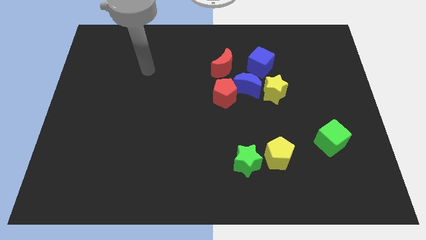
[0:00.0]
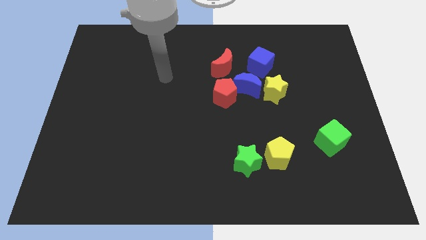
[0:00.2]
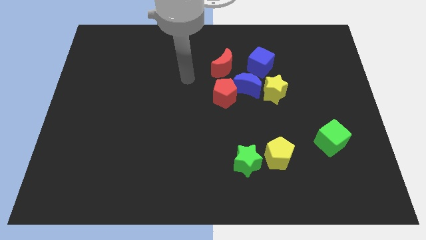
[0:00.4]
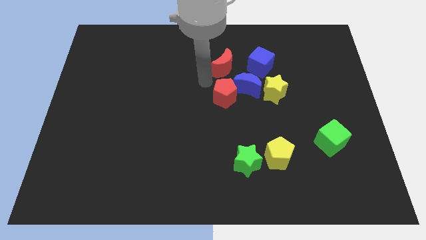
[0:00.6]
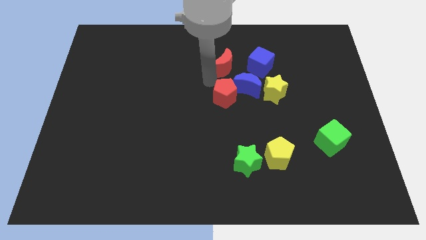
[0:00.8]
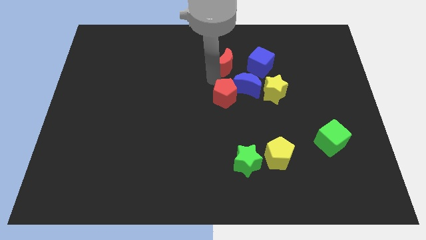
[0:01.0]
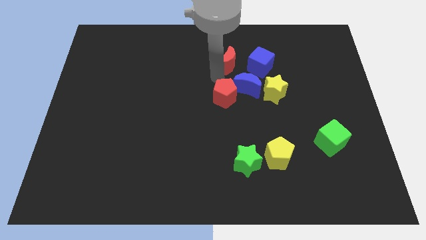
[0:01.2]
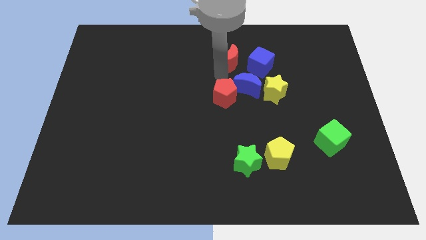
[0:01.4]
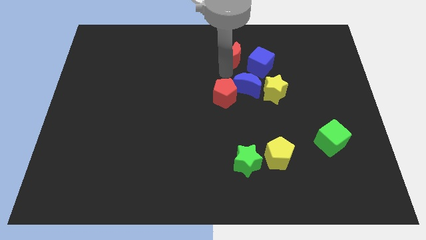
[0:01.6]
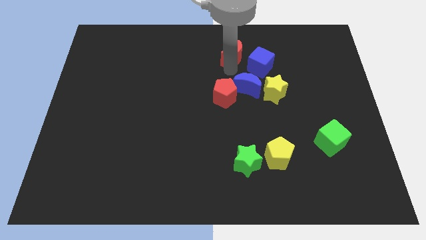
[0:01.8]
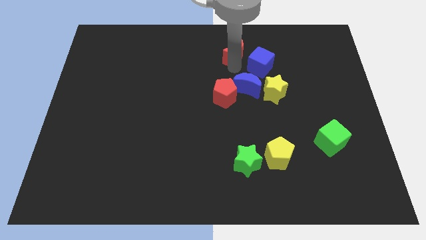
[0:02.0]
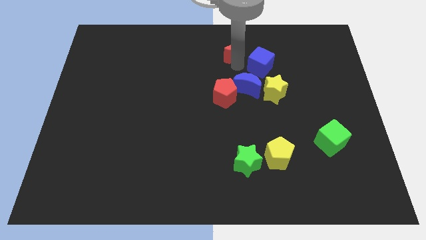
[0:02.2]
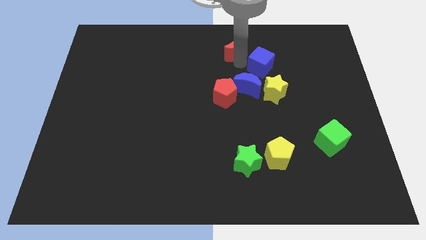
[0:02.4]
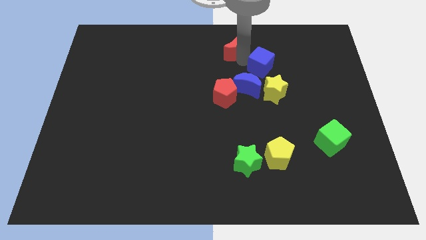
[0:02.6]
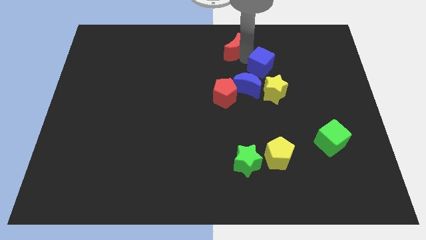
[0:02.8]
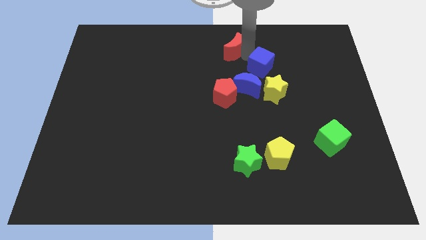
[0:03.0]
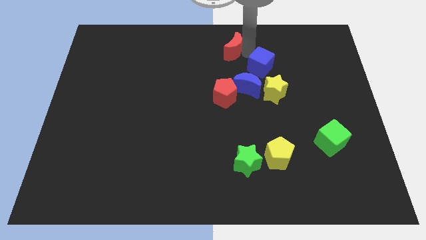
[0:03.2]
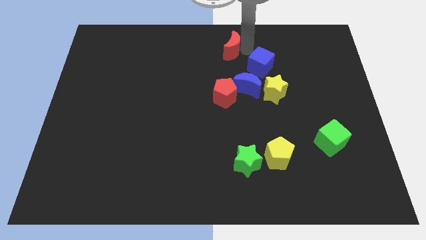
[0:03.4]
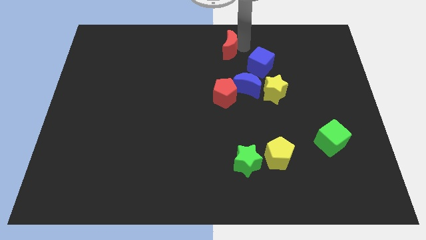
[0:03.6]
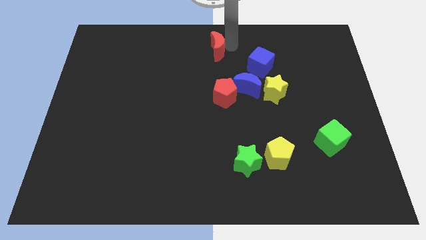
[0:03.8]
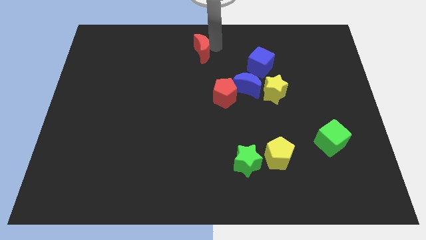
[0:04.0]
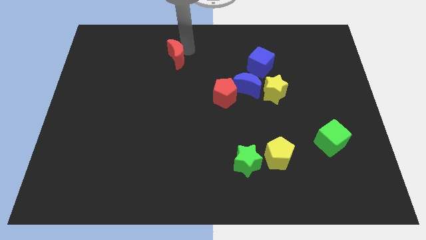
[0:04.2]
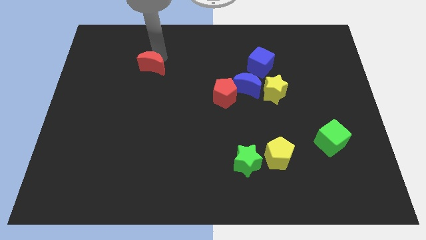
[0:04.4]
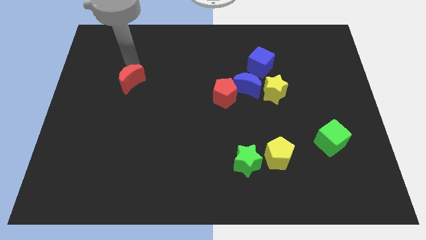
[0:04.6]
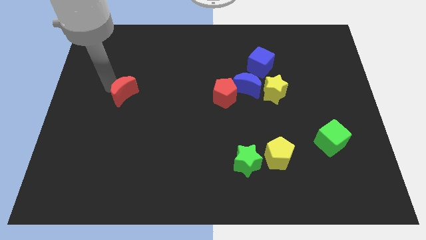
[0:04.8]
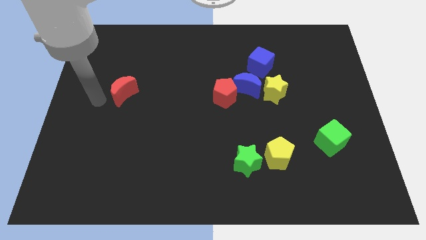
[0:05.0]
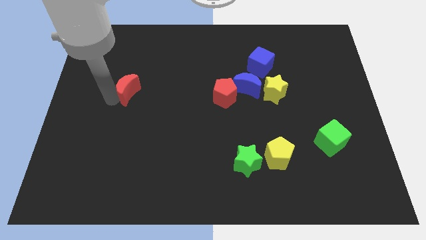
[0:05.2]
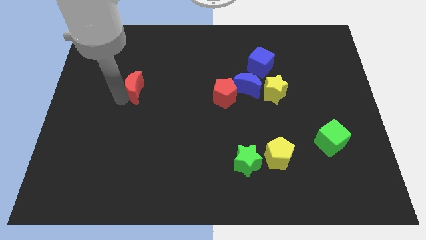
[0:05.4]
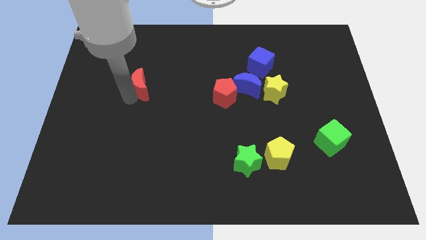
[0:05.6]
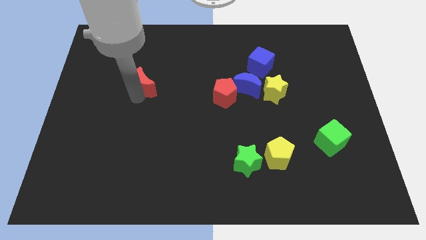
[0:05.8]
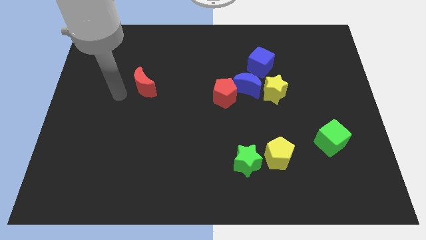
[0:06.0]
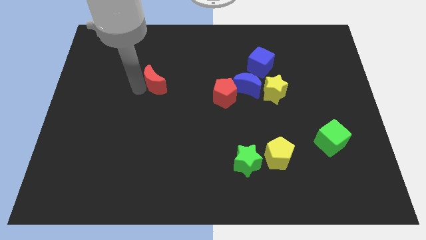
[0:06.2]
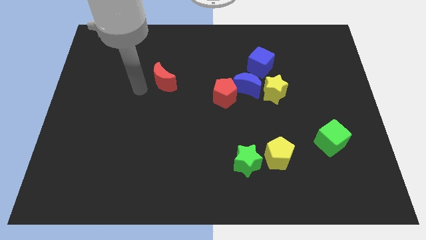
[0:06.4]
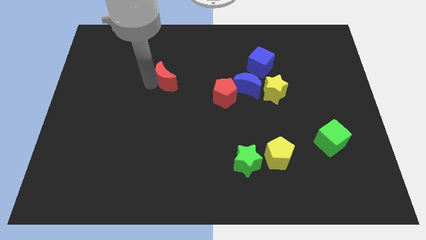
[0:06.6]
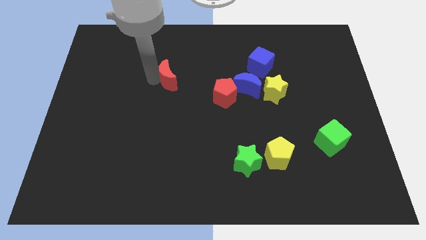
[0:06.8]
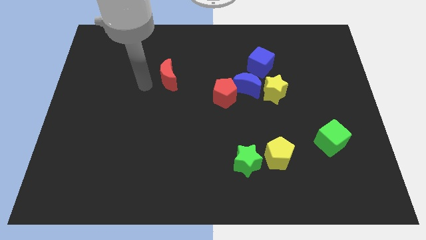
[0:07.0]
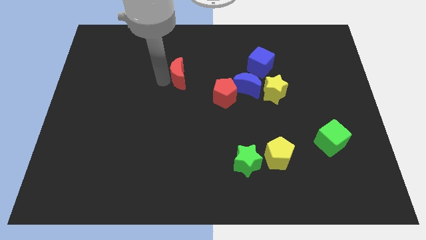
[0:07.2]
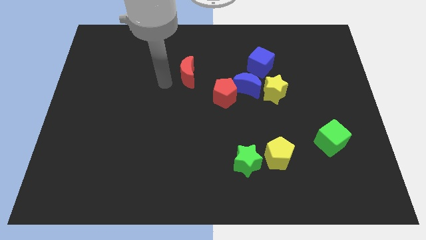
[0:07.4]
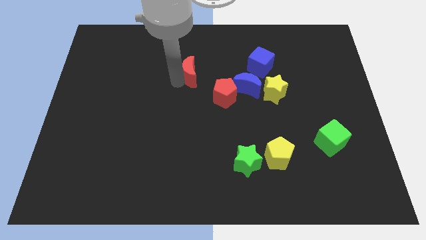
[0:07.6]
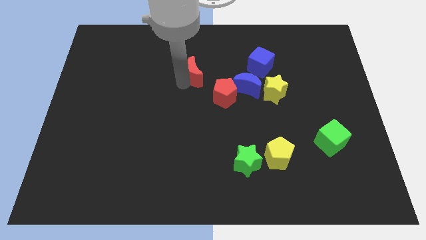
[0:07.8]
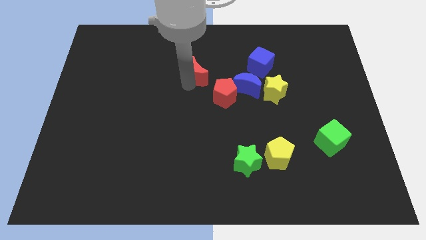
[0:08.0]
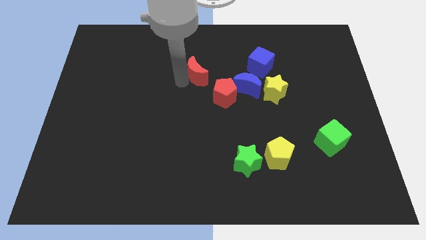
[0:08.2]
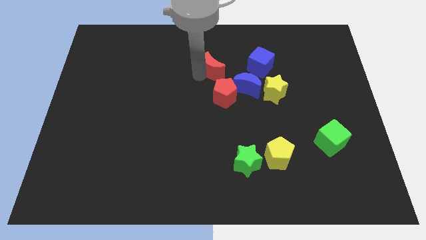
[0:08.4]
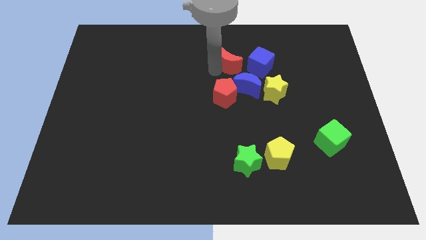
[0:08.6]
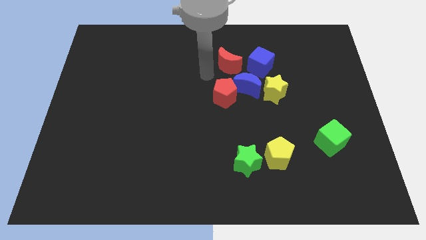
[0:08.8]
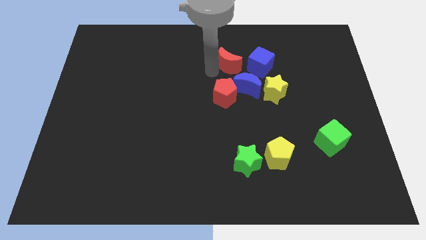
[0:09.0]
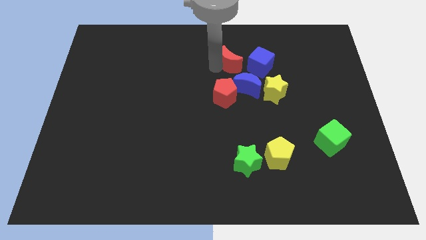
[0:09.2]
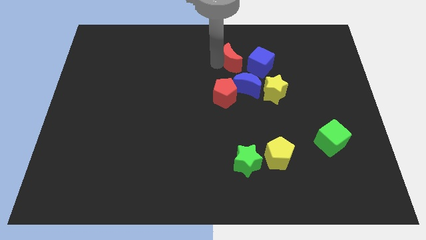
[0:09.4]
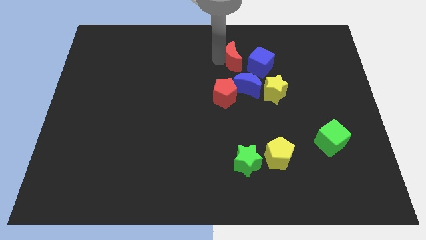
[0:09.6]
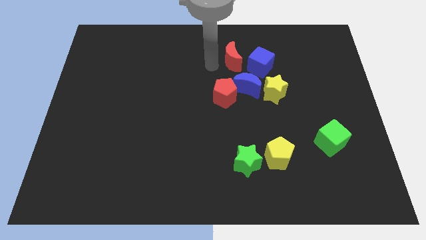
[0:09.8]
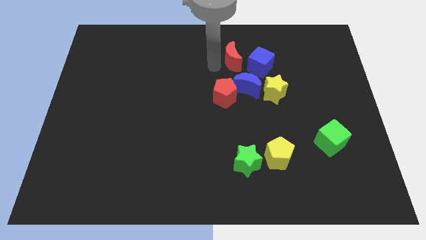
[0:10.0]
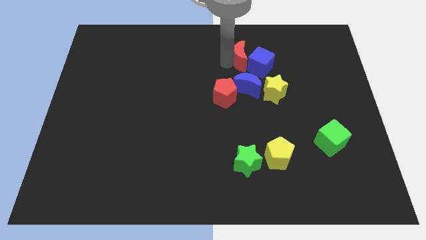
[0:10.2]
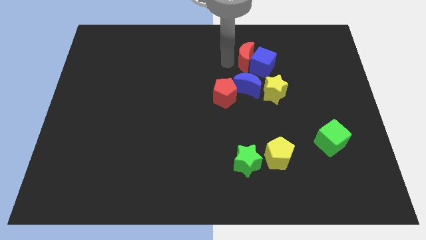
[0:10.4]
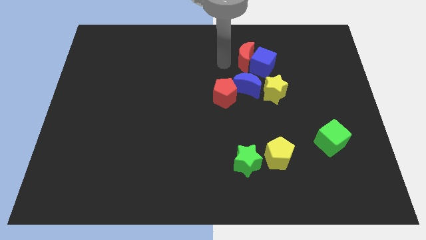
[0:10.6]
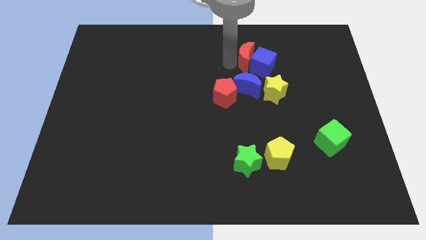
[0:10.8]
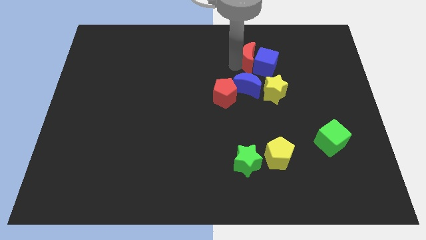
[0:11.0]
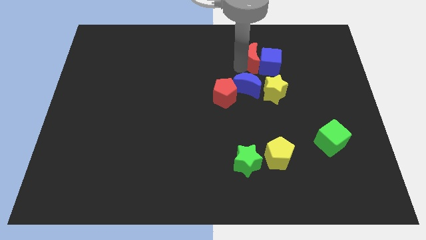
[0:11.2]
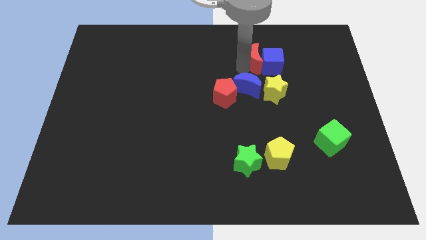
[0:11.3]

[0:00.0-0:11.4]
slide the red moon to the top right of the blue moon

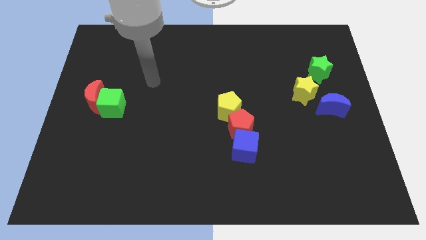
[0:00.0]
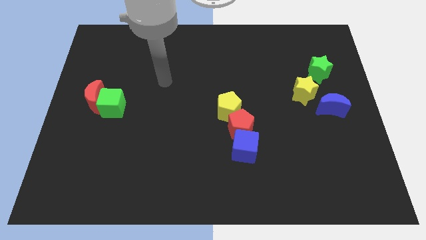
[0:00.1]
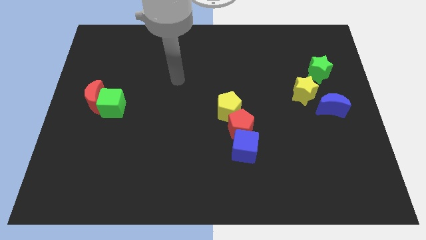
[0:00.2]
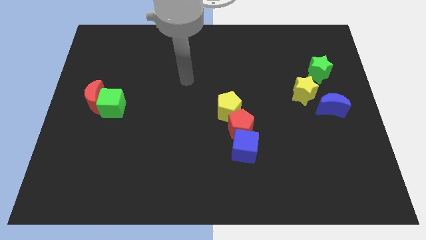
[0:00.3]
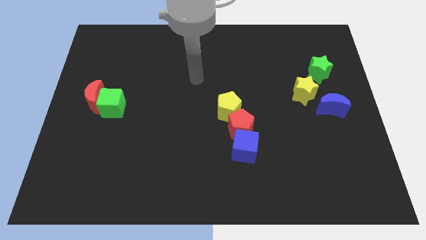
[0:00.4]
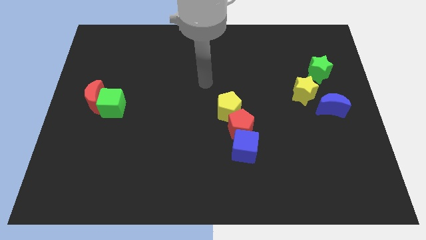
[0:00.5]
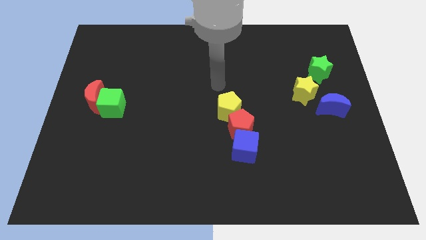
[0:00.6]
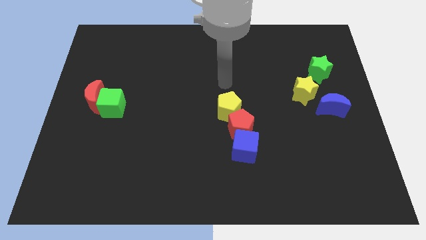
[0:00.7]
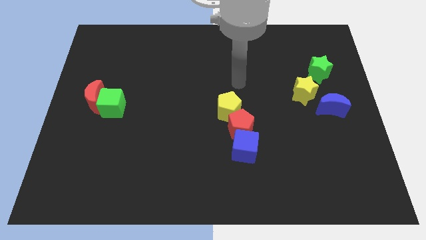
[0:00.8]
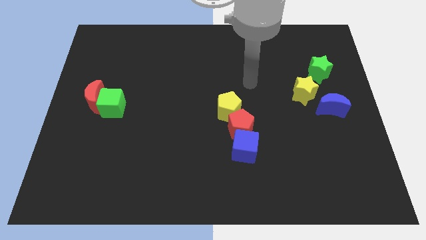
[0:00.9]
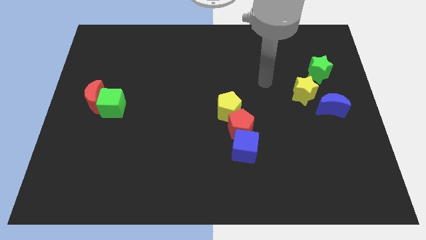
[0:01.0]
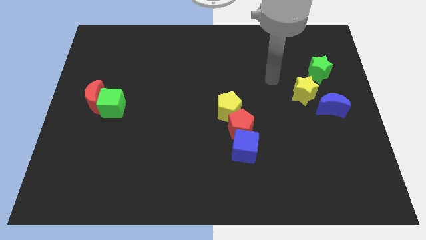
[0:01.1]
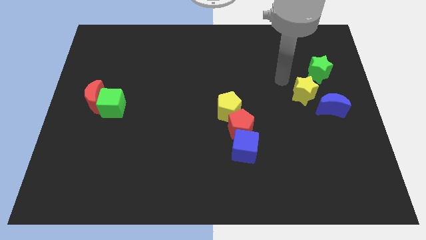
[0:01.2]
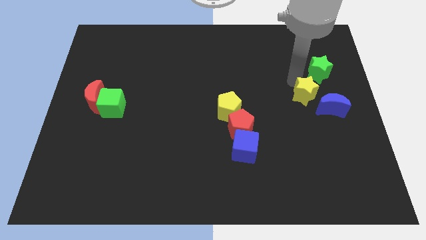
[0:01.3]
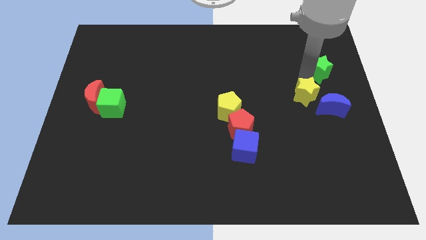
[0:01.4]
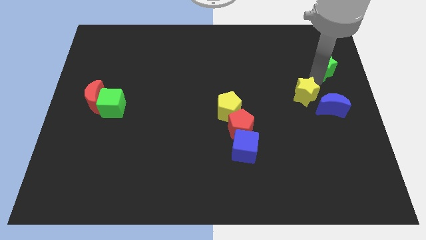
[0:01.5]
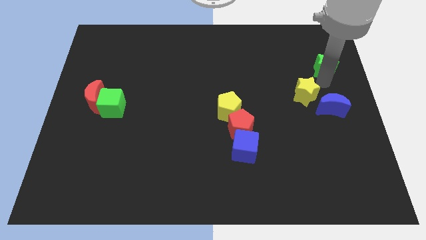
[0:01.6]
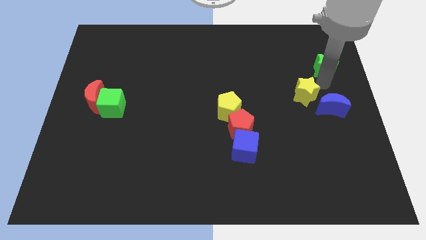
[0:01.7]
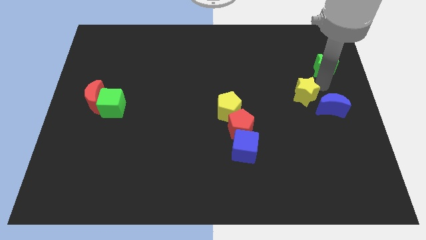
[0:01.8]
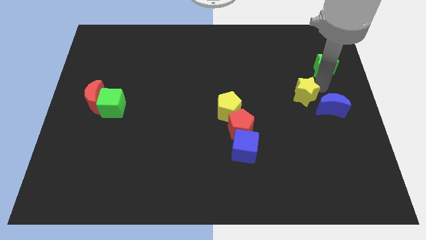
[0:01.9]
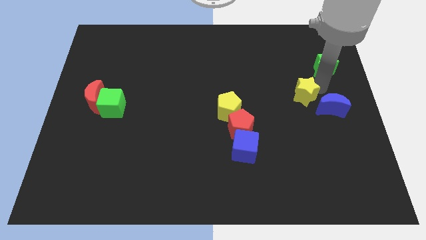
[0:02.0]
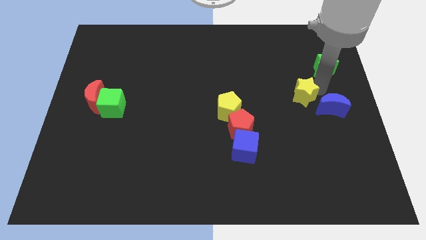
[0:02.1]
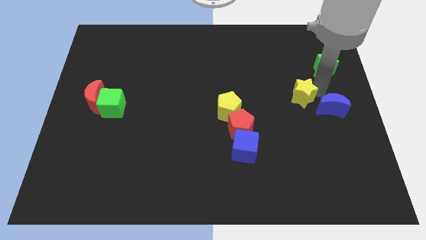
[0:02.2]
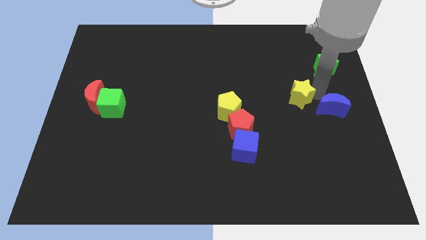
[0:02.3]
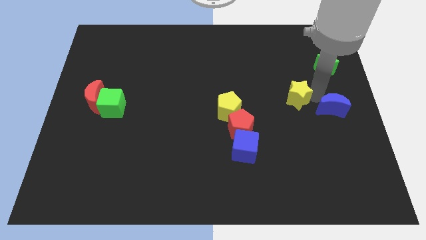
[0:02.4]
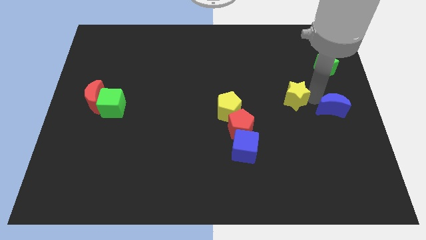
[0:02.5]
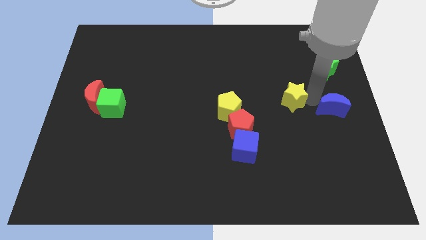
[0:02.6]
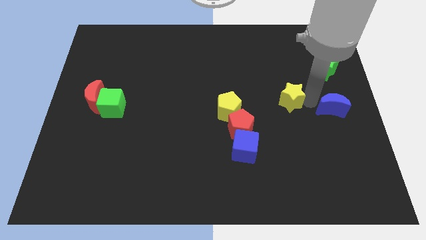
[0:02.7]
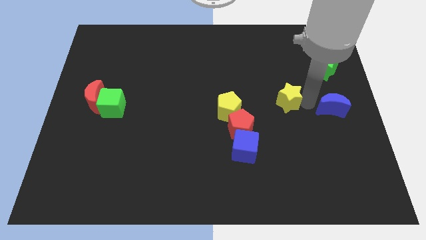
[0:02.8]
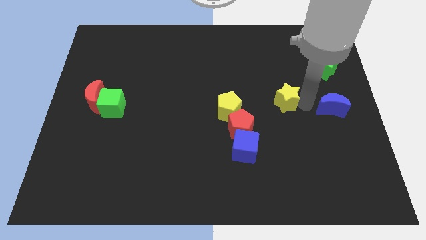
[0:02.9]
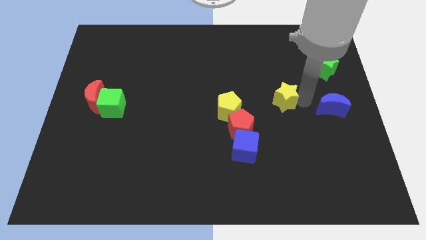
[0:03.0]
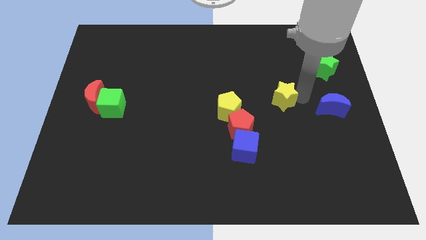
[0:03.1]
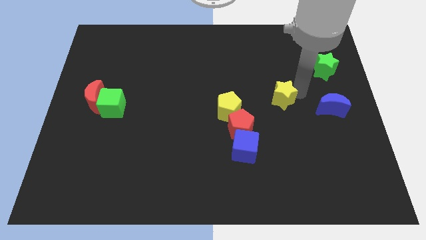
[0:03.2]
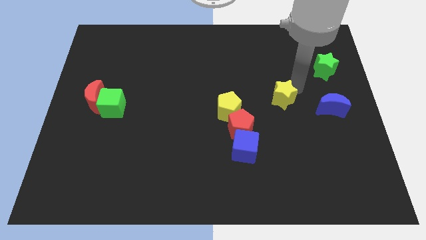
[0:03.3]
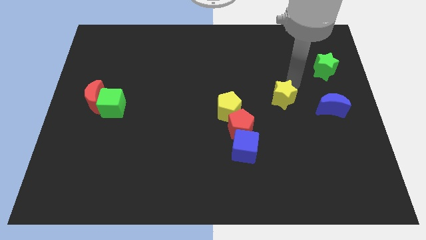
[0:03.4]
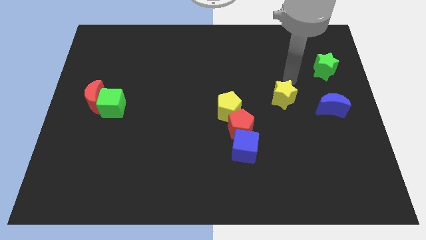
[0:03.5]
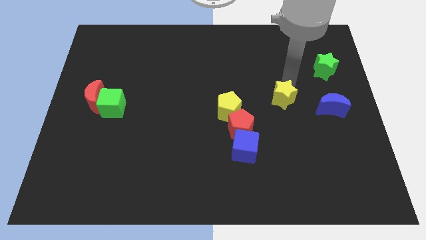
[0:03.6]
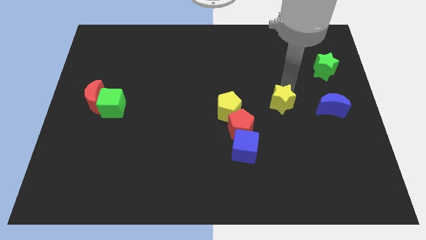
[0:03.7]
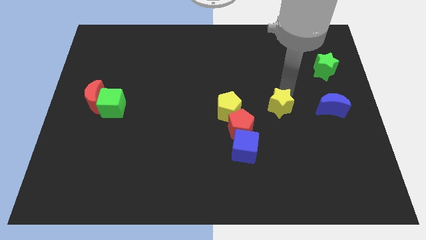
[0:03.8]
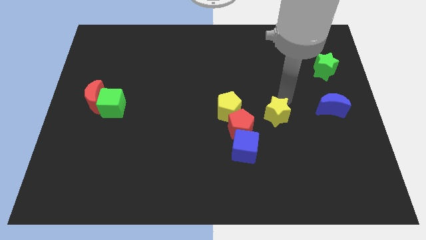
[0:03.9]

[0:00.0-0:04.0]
move the yellow star to the top right of the blue cube
